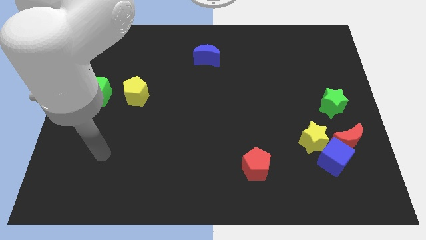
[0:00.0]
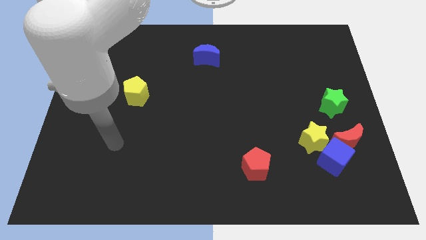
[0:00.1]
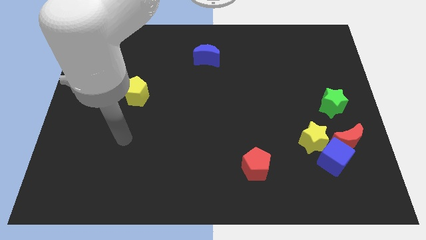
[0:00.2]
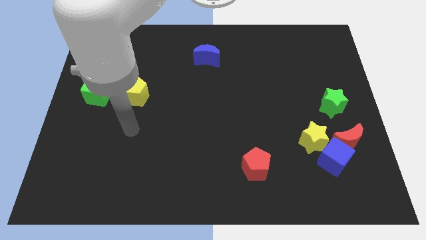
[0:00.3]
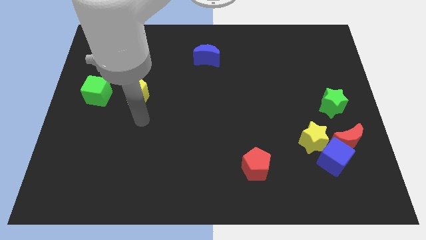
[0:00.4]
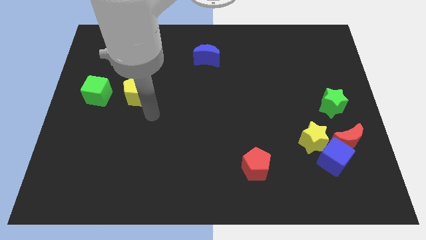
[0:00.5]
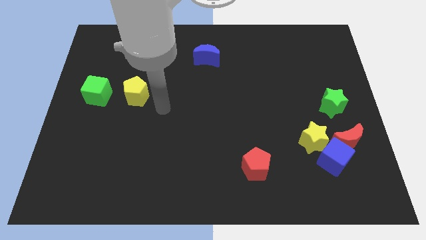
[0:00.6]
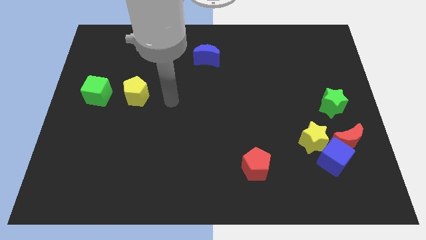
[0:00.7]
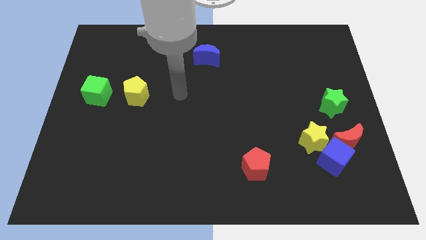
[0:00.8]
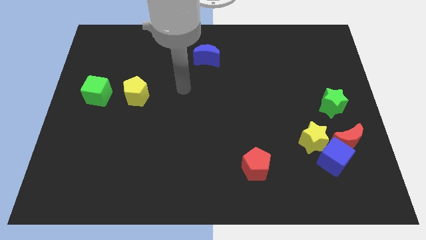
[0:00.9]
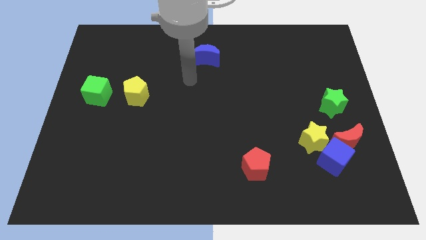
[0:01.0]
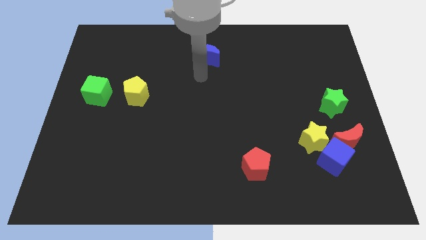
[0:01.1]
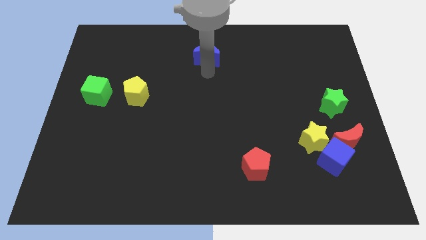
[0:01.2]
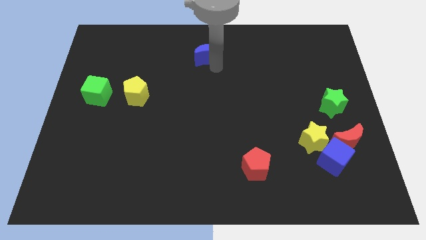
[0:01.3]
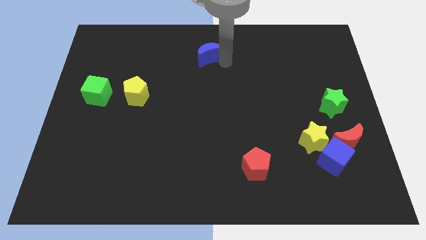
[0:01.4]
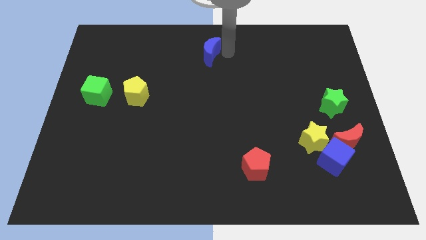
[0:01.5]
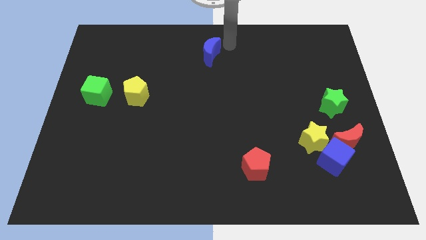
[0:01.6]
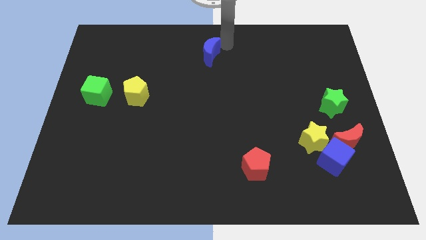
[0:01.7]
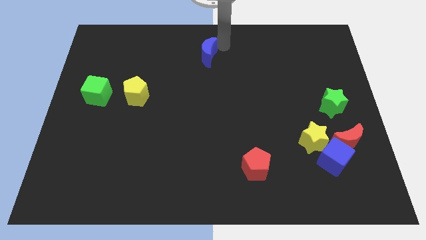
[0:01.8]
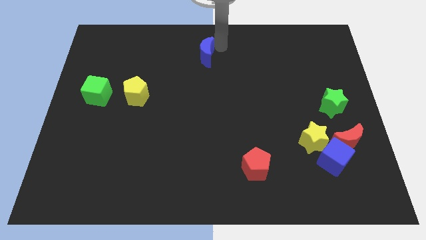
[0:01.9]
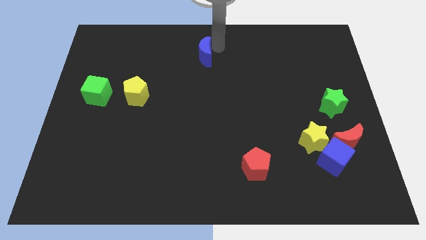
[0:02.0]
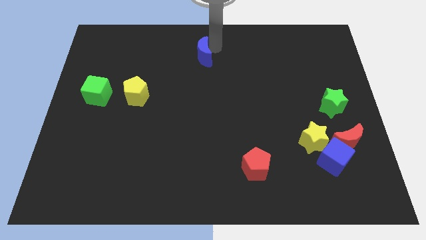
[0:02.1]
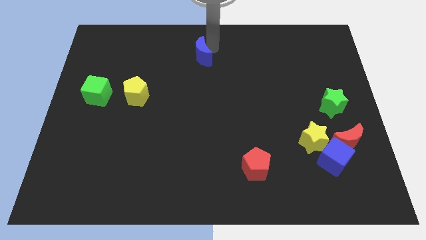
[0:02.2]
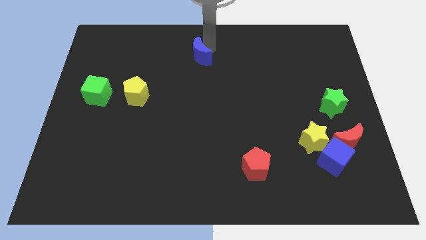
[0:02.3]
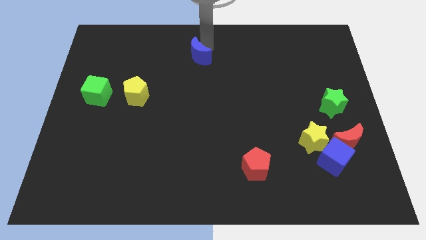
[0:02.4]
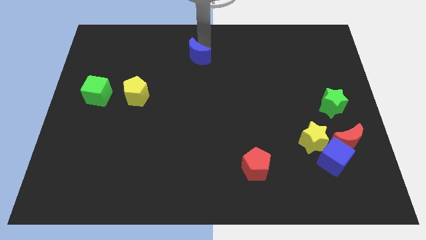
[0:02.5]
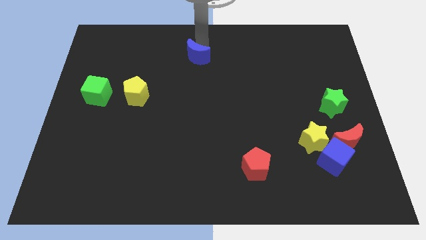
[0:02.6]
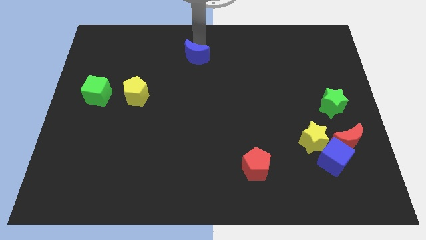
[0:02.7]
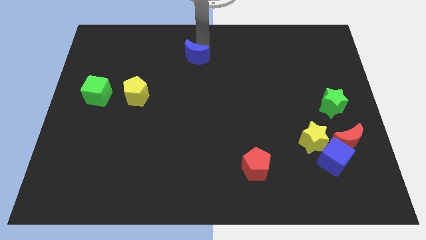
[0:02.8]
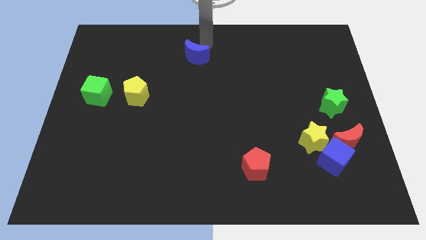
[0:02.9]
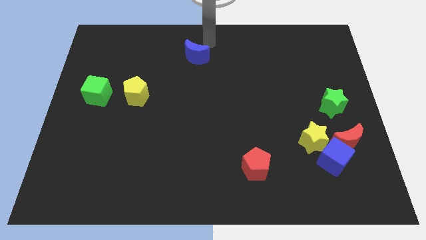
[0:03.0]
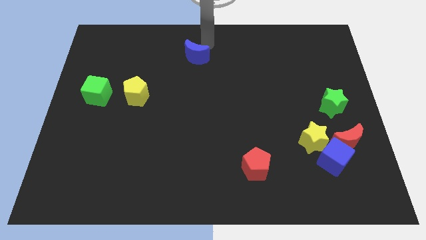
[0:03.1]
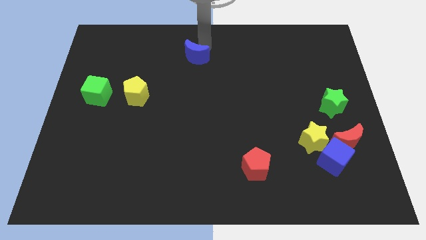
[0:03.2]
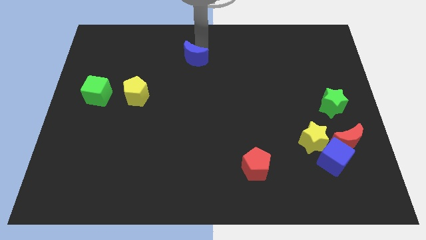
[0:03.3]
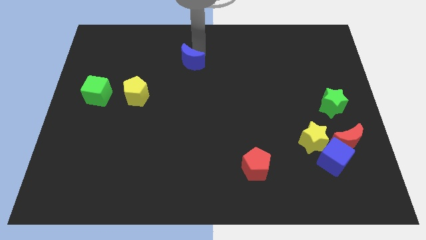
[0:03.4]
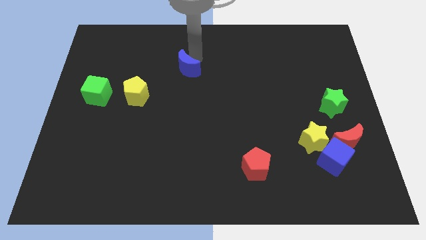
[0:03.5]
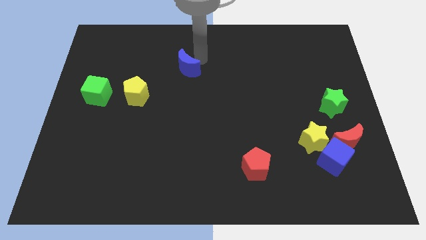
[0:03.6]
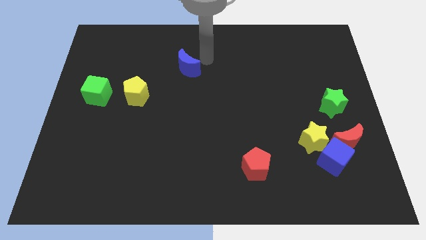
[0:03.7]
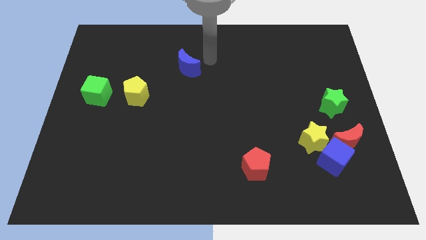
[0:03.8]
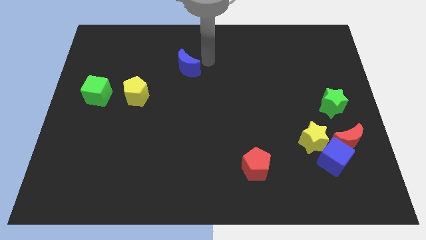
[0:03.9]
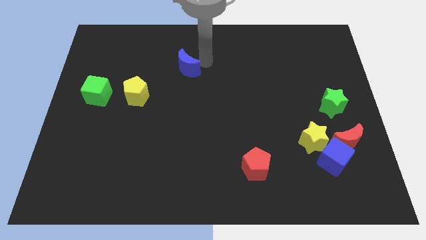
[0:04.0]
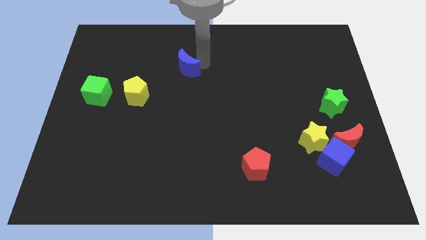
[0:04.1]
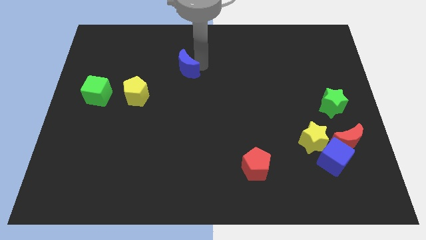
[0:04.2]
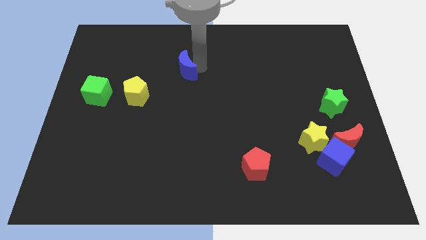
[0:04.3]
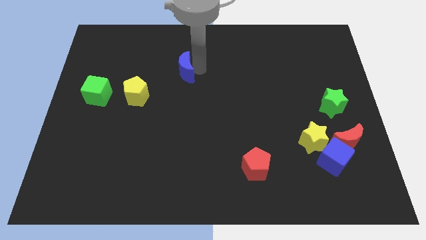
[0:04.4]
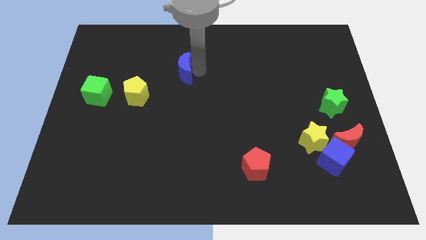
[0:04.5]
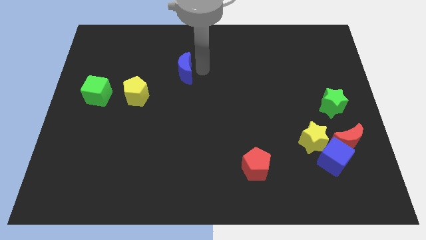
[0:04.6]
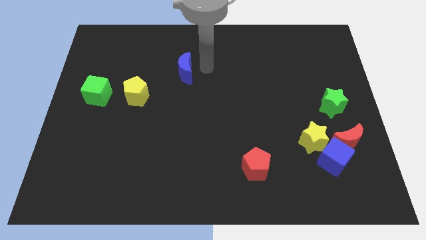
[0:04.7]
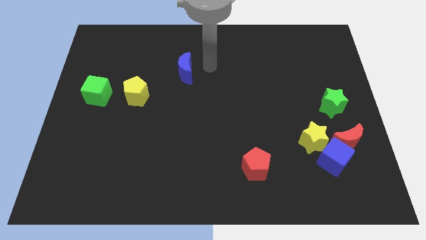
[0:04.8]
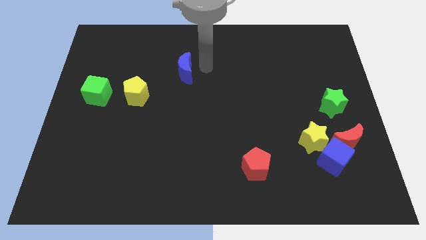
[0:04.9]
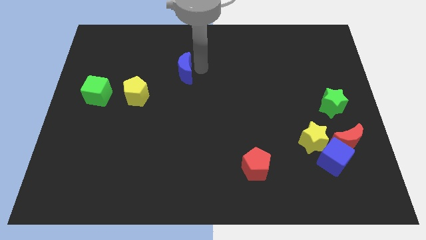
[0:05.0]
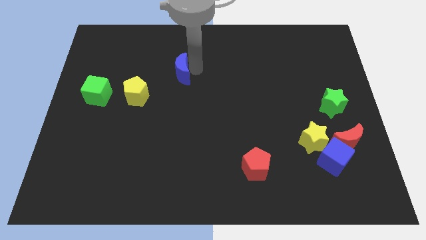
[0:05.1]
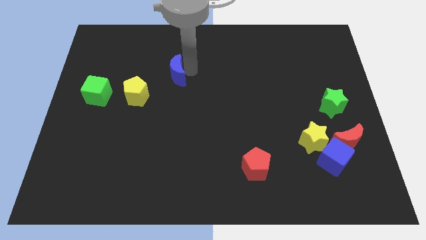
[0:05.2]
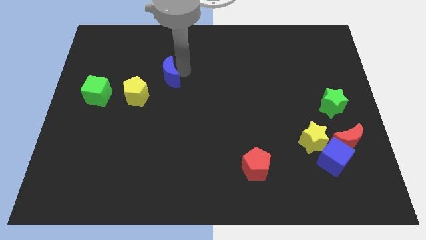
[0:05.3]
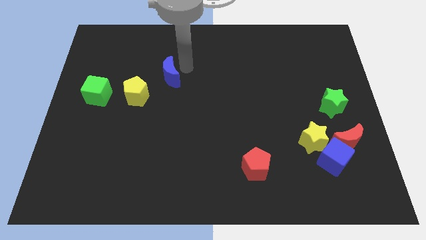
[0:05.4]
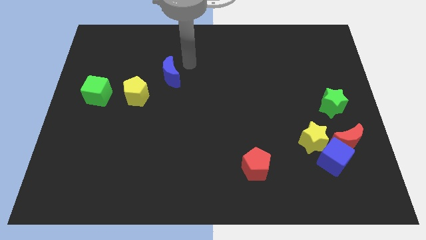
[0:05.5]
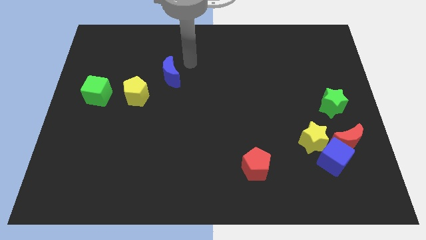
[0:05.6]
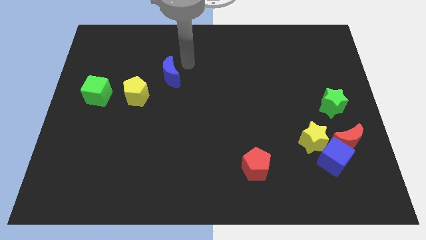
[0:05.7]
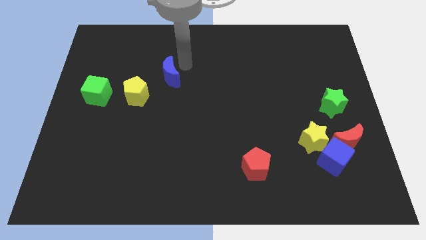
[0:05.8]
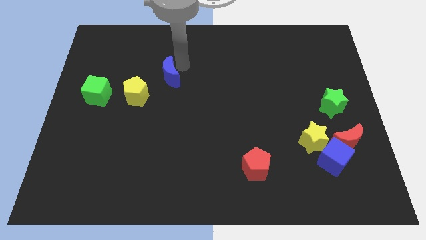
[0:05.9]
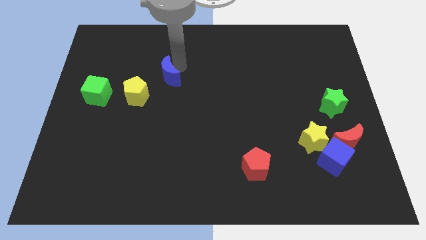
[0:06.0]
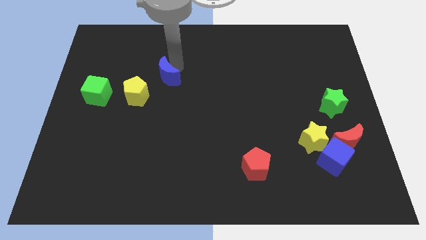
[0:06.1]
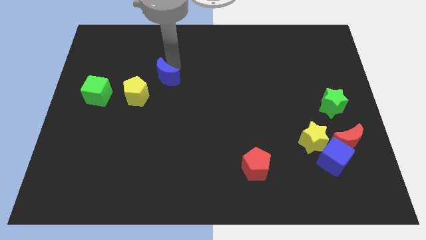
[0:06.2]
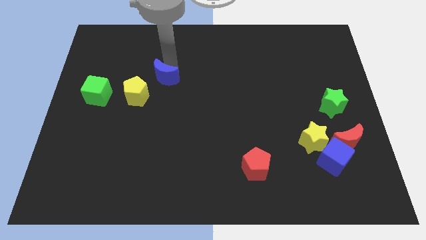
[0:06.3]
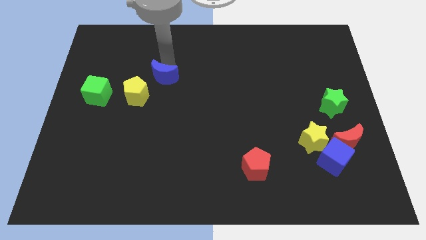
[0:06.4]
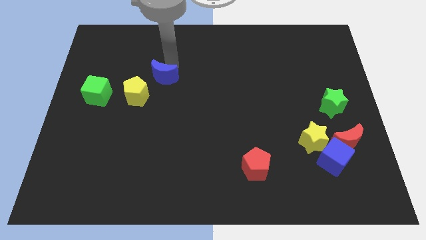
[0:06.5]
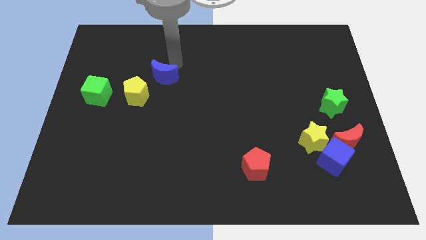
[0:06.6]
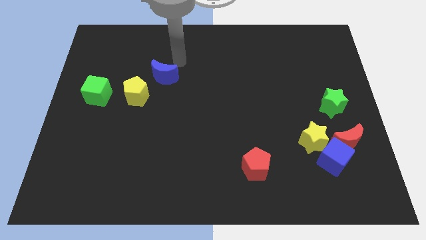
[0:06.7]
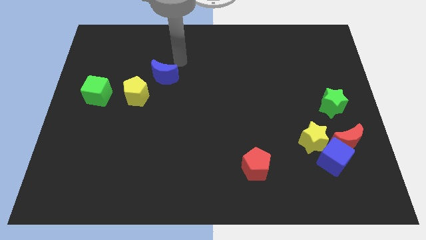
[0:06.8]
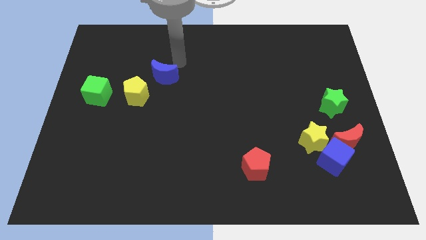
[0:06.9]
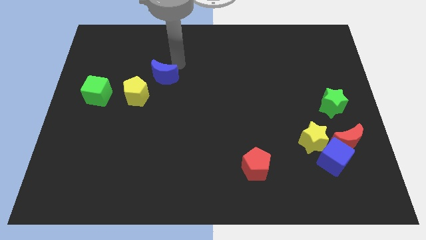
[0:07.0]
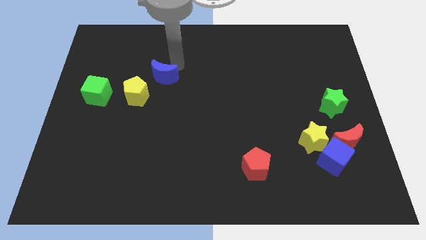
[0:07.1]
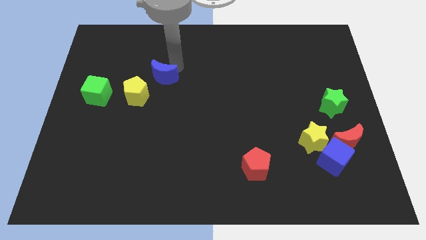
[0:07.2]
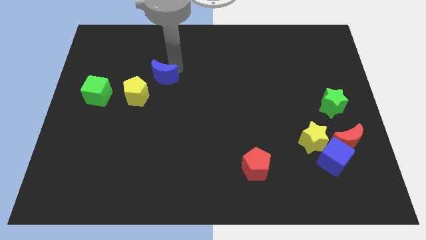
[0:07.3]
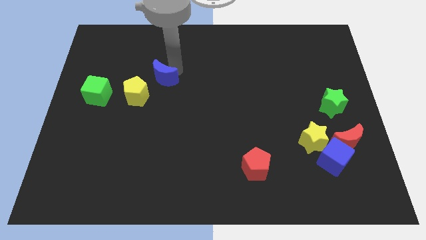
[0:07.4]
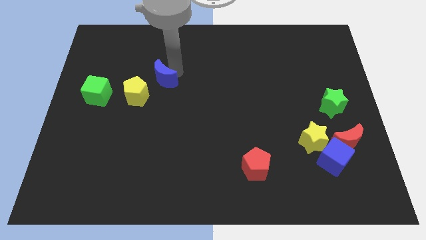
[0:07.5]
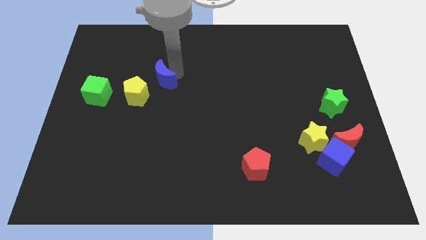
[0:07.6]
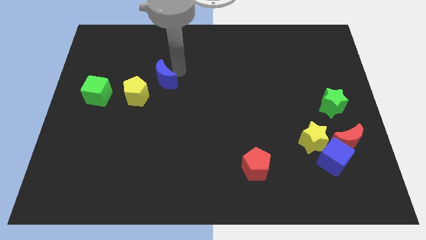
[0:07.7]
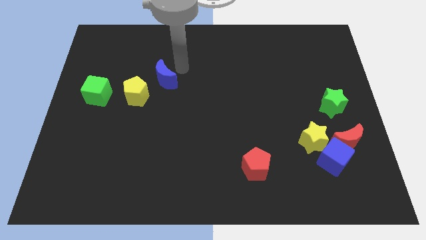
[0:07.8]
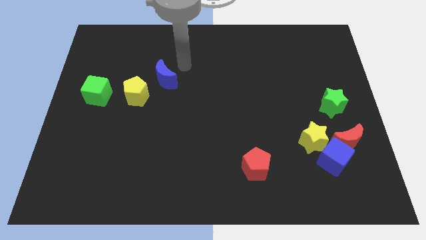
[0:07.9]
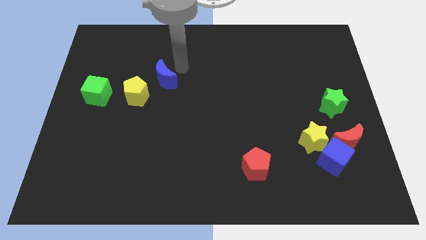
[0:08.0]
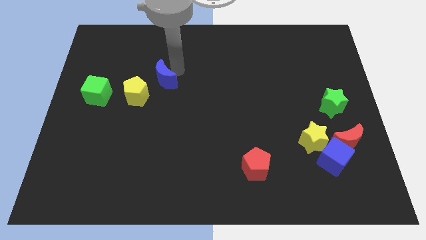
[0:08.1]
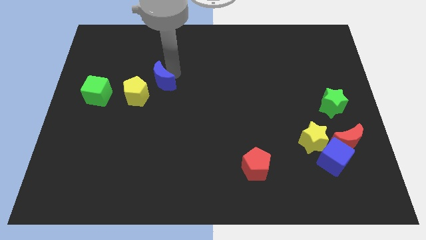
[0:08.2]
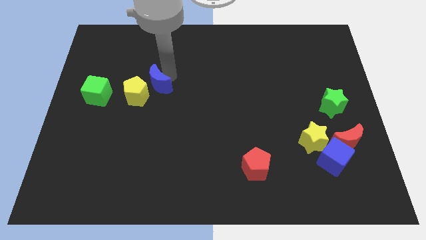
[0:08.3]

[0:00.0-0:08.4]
slide the blue moon close to the yellow pentagon
